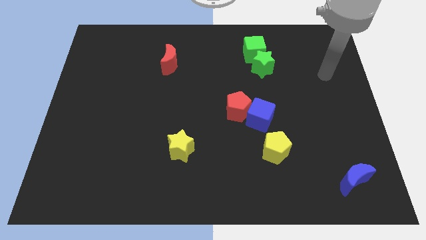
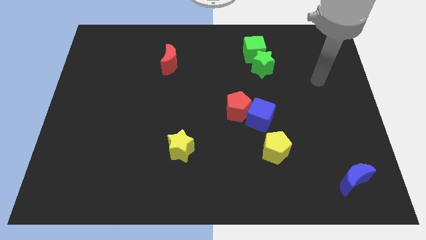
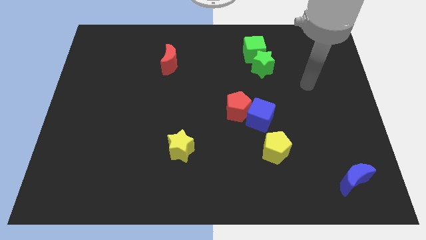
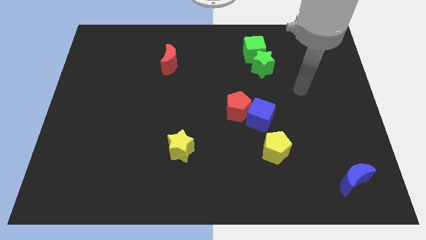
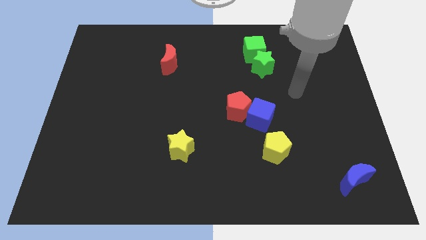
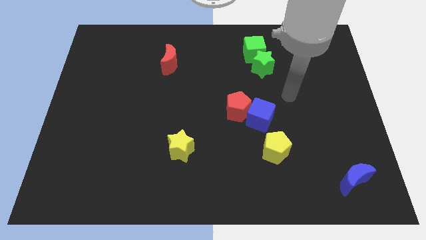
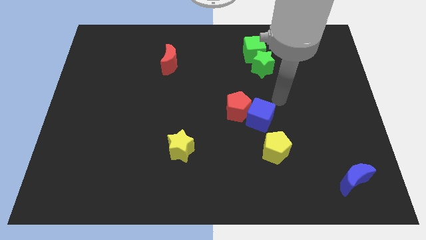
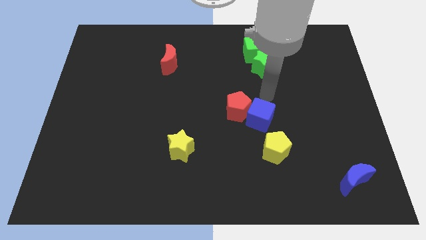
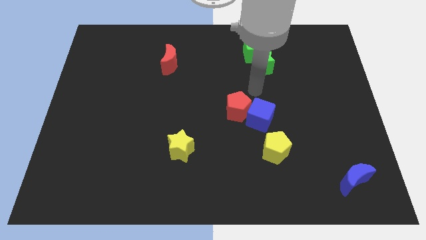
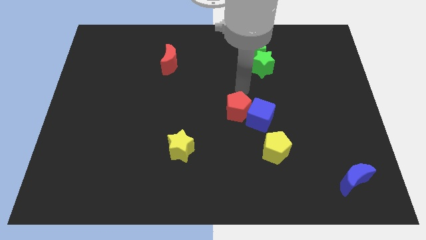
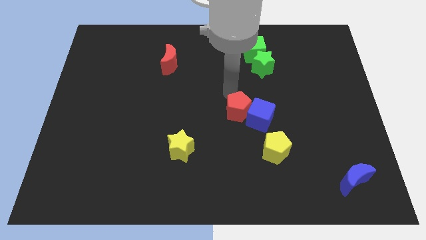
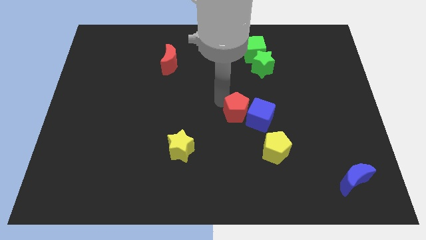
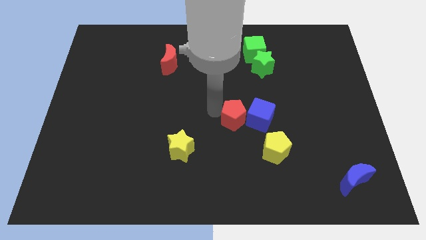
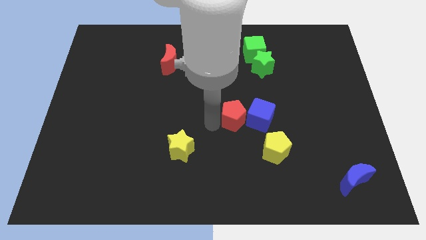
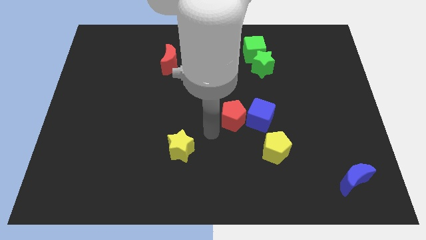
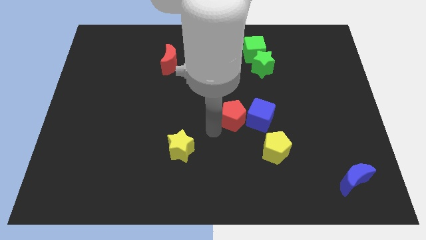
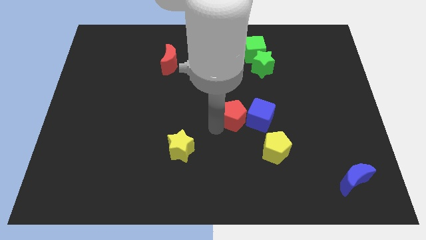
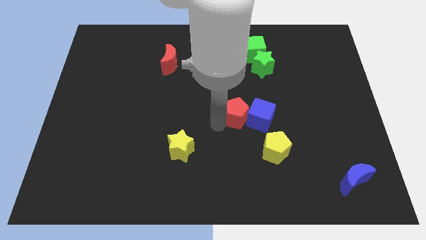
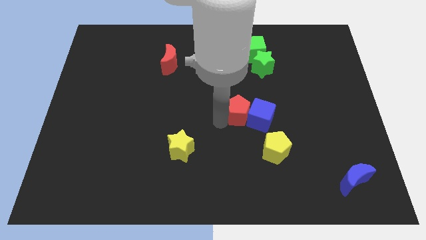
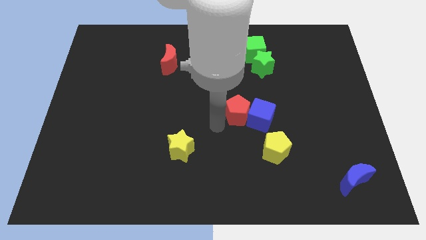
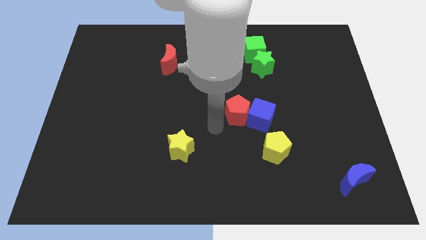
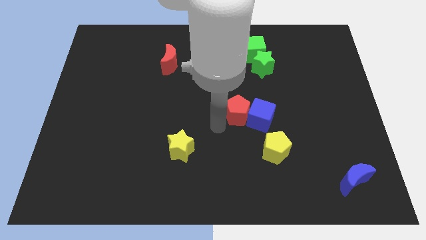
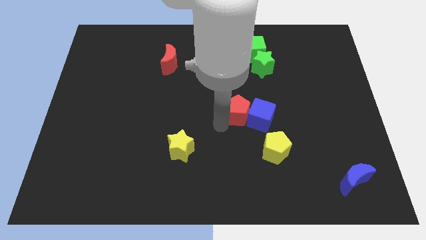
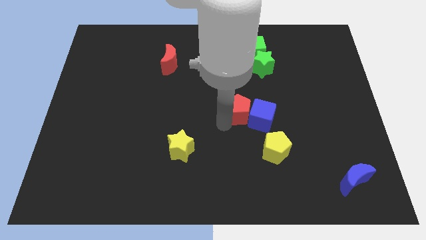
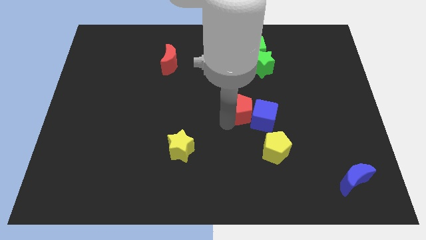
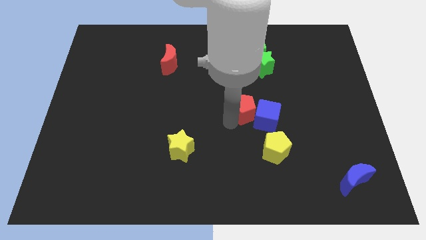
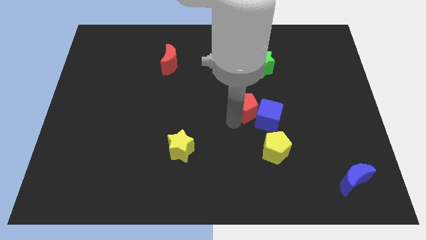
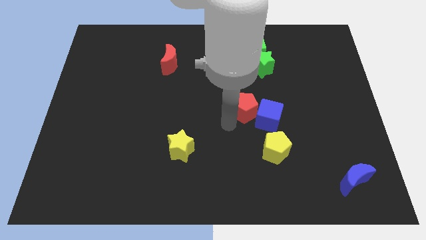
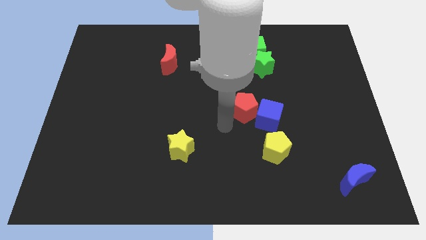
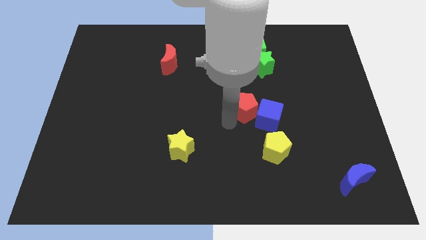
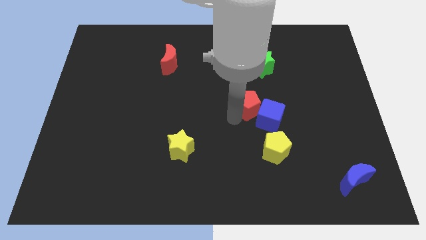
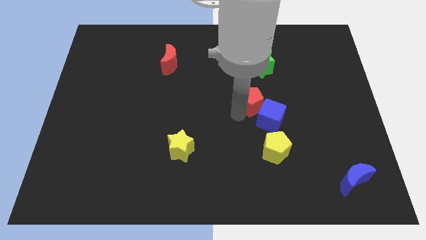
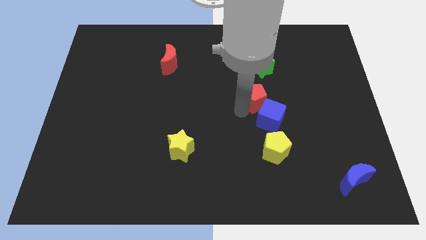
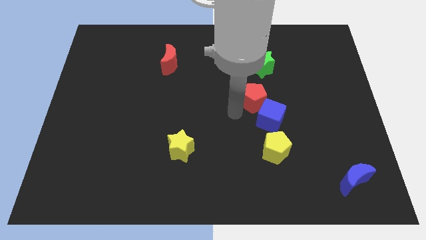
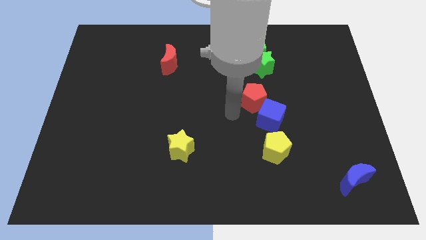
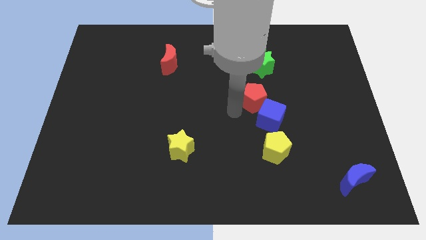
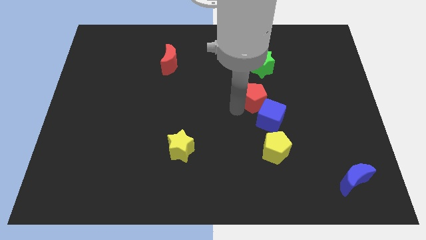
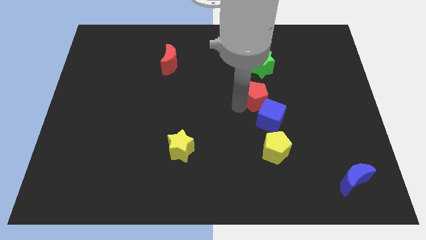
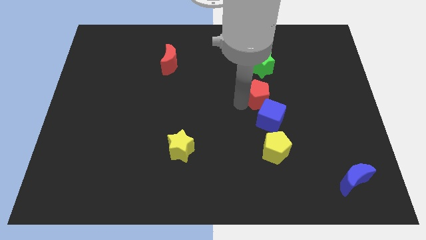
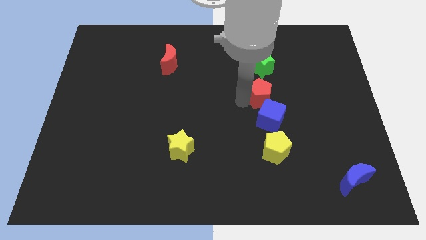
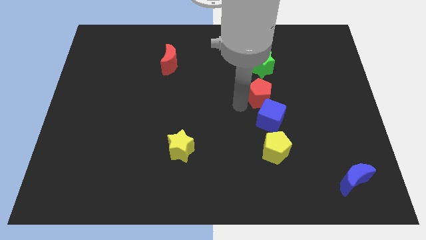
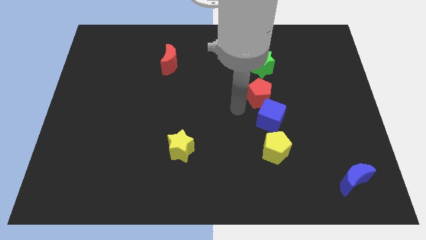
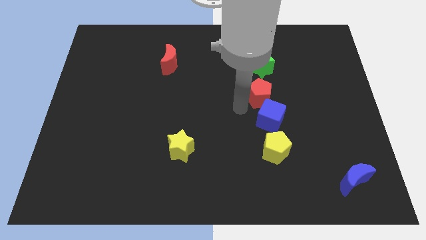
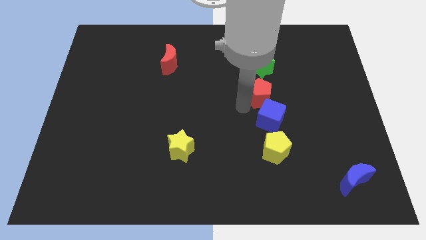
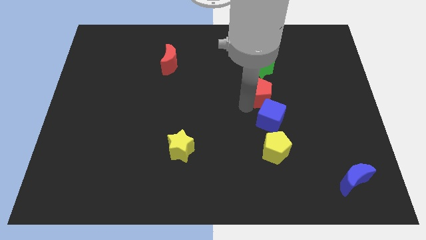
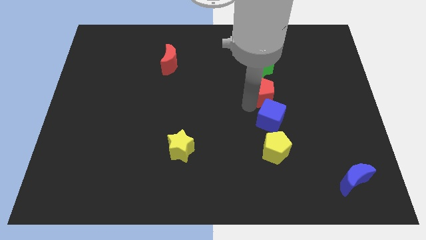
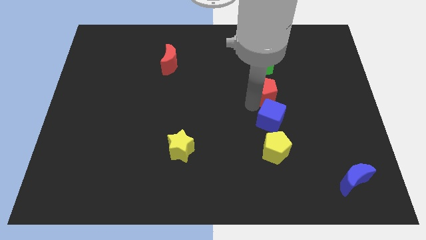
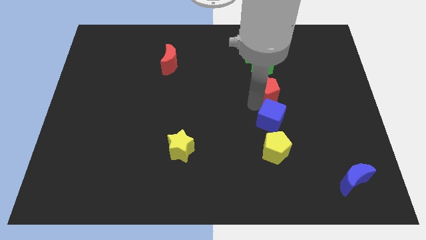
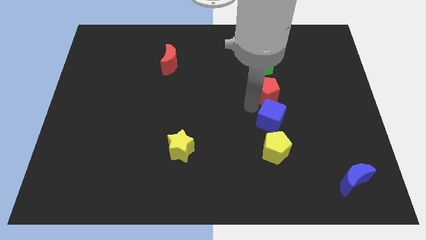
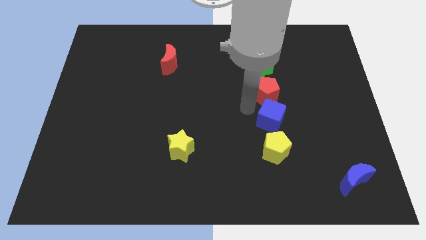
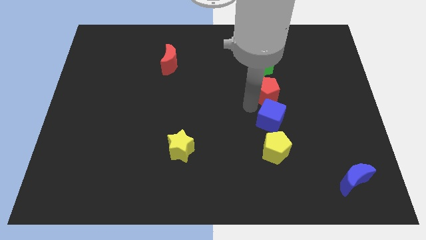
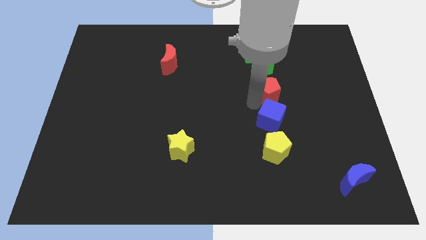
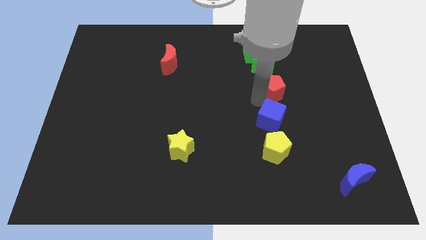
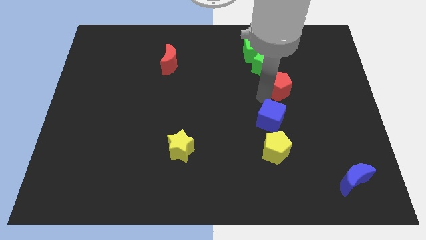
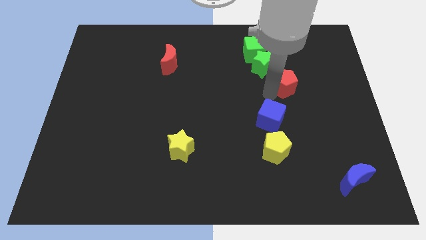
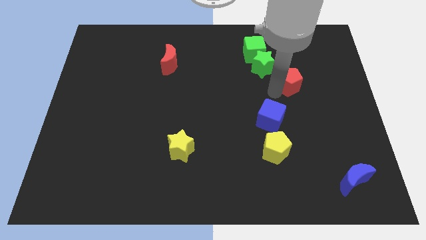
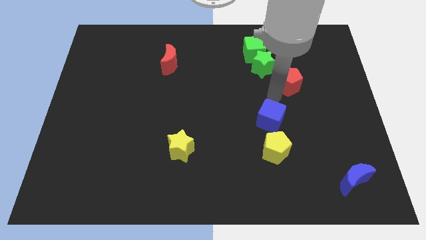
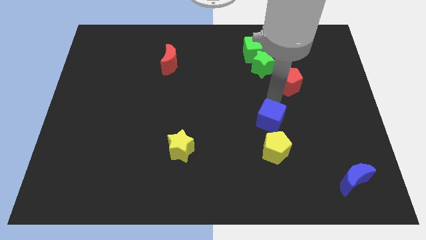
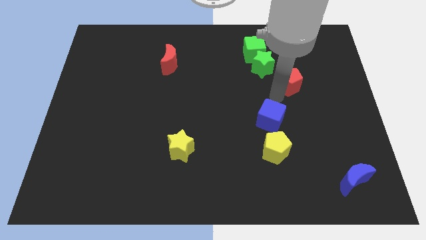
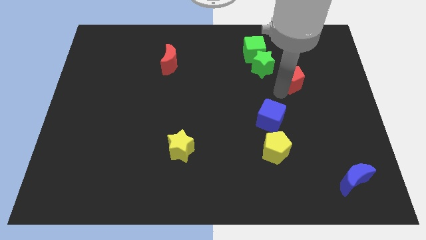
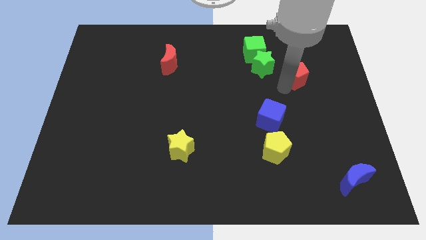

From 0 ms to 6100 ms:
push the red pentagon just right of the green star

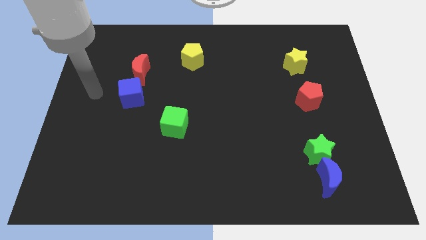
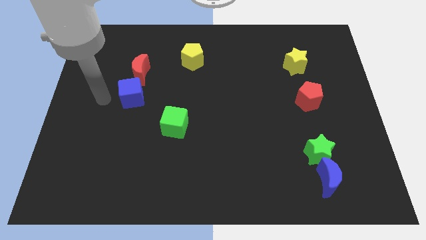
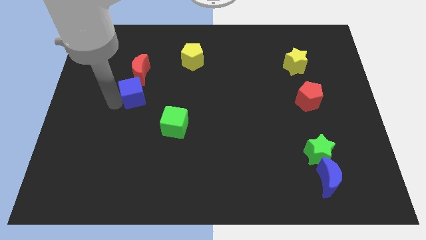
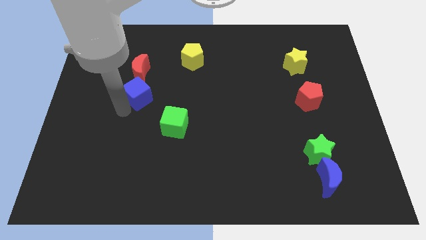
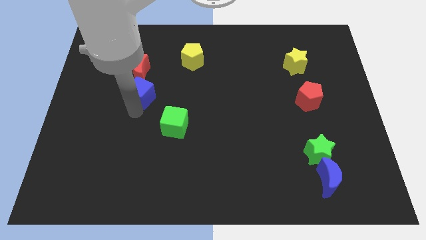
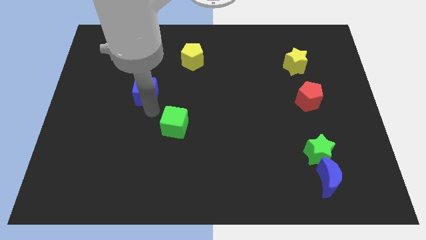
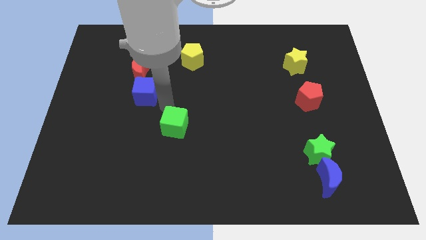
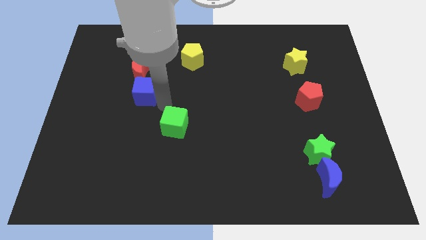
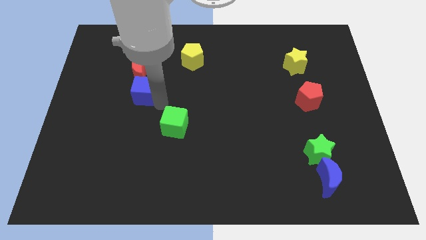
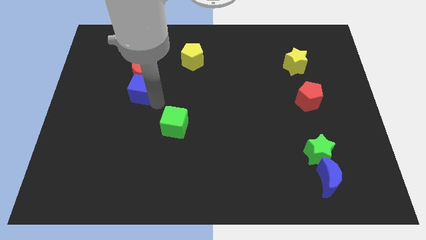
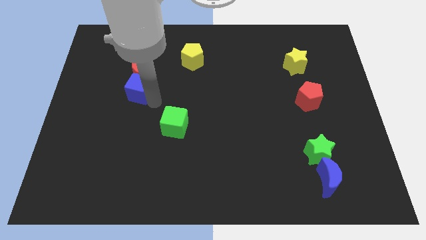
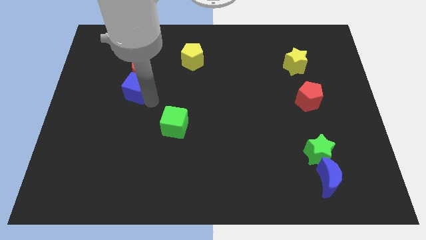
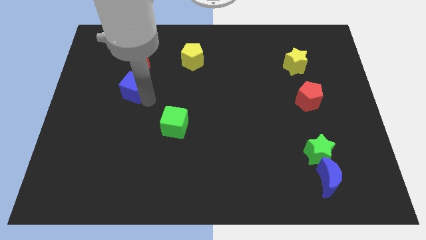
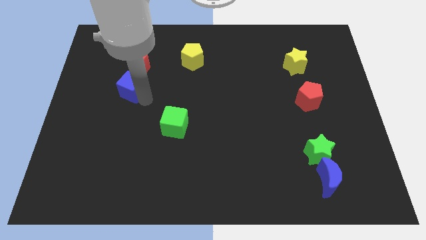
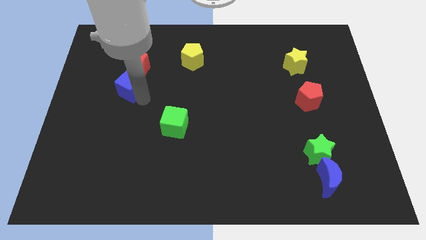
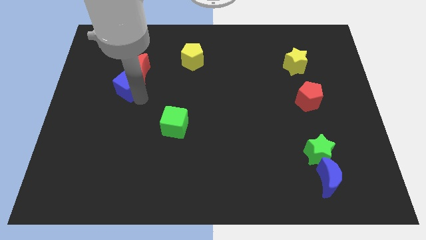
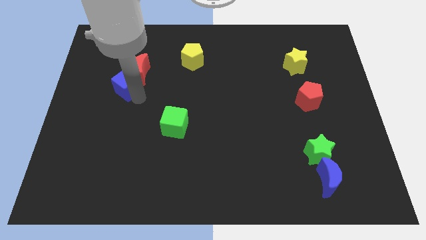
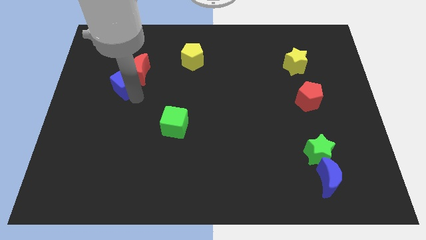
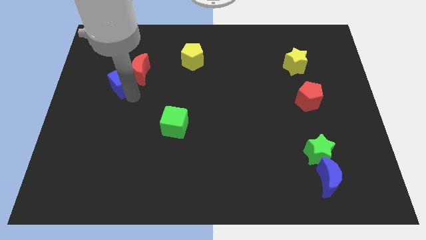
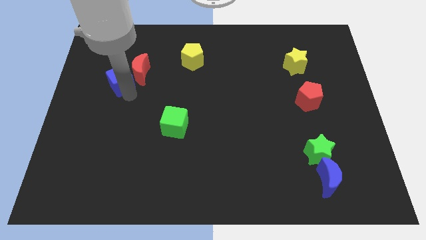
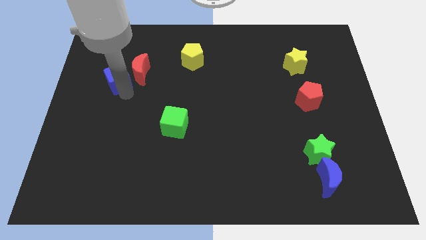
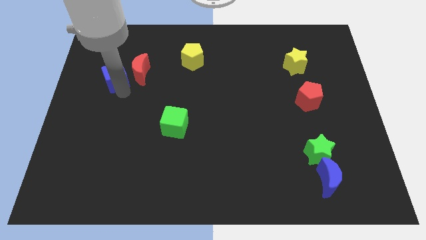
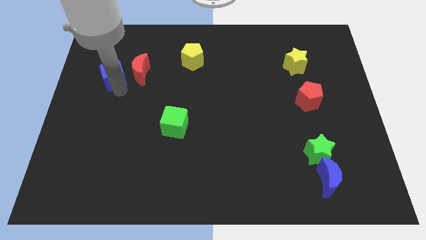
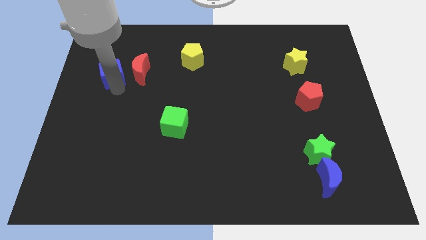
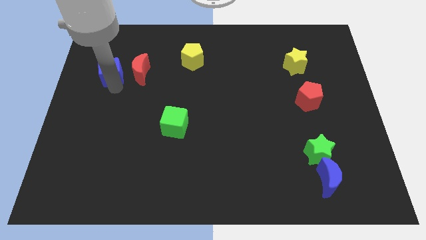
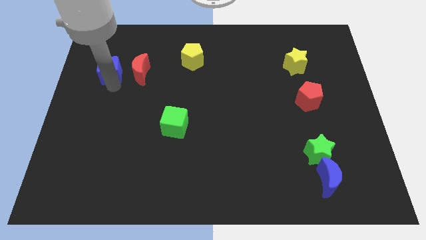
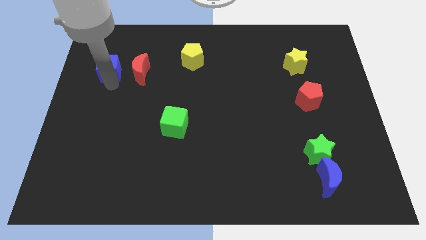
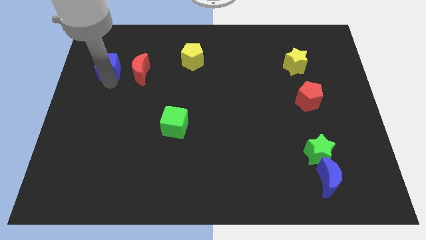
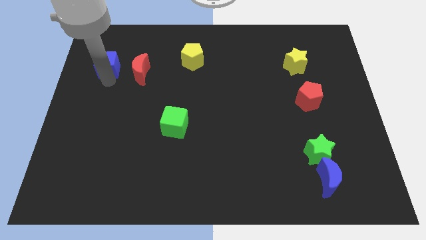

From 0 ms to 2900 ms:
put the blue cube diagonally up and to the left of the red moon
